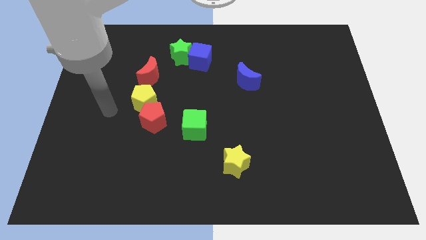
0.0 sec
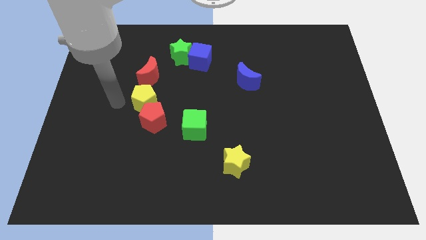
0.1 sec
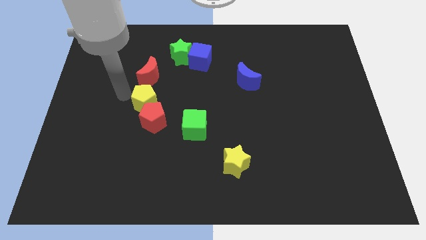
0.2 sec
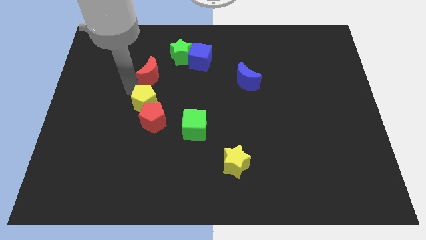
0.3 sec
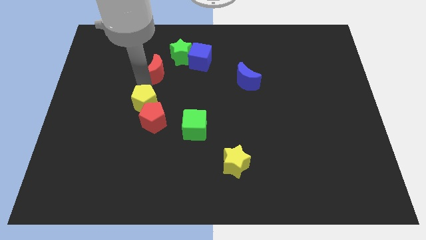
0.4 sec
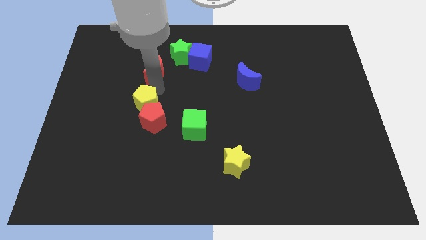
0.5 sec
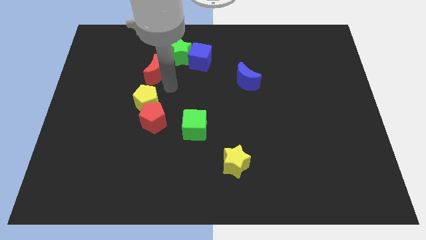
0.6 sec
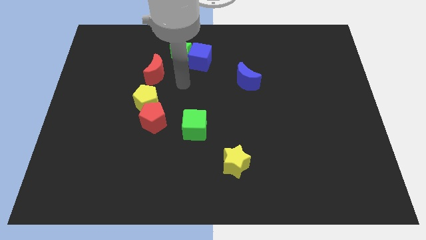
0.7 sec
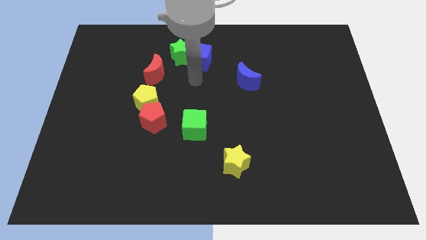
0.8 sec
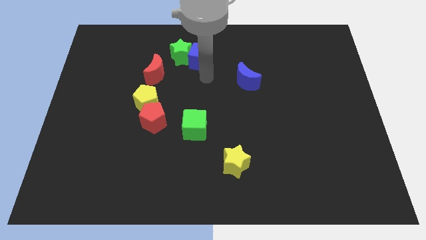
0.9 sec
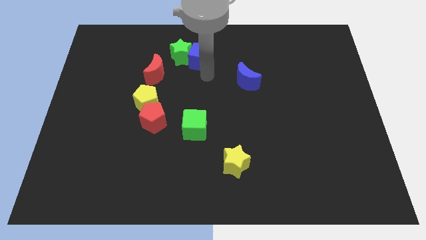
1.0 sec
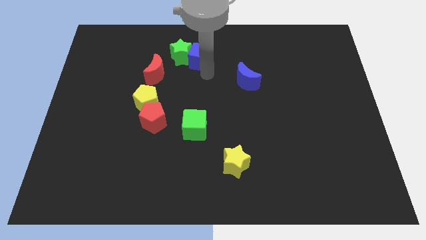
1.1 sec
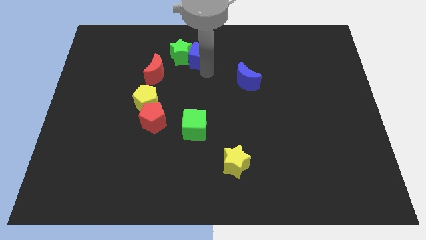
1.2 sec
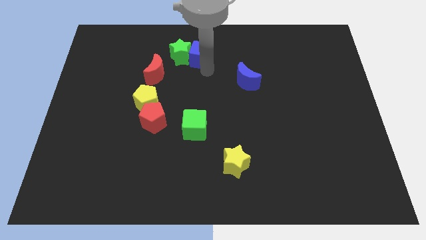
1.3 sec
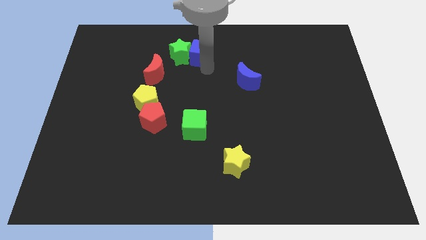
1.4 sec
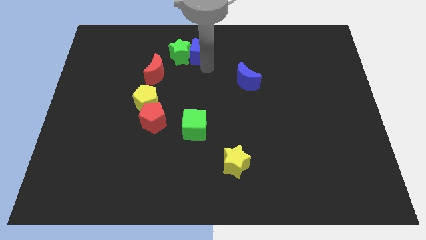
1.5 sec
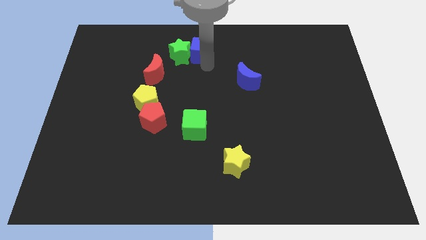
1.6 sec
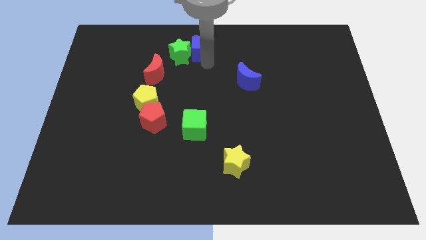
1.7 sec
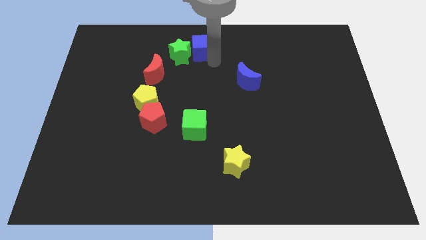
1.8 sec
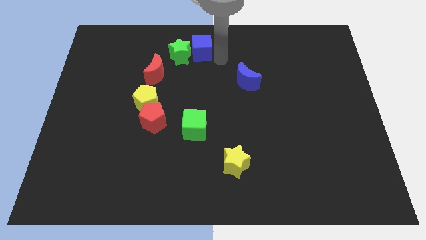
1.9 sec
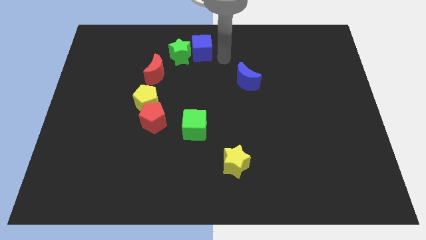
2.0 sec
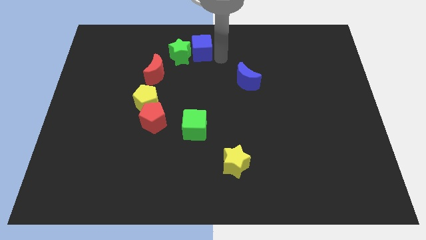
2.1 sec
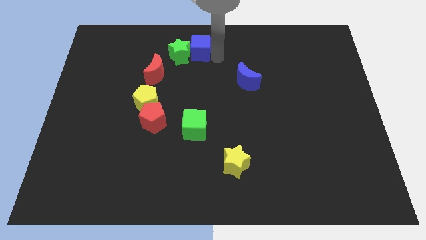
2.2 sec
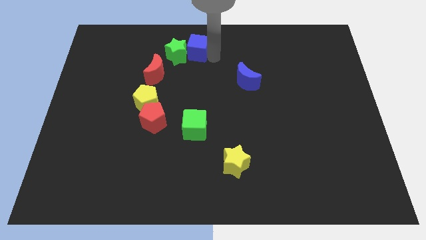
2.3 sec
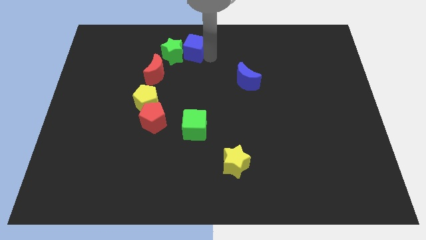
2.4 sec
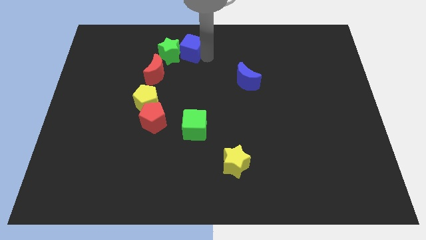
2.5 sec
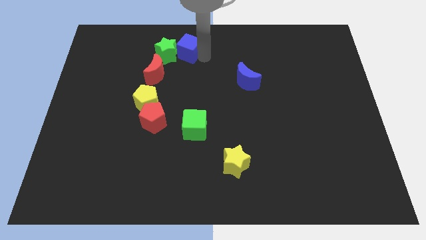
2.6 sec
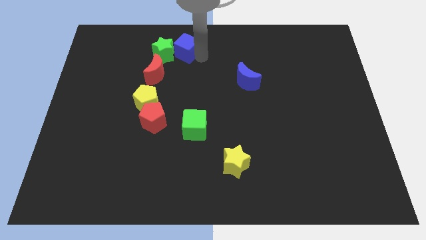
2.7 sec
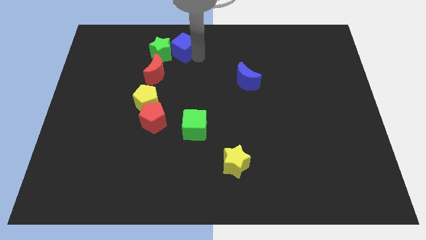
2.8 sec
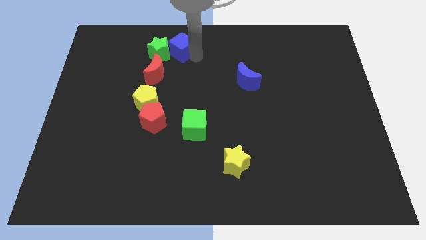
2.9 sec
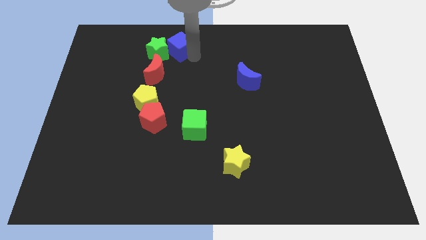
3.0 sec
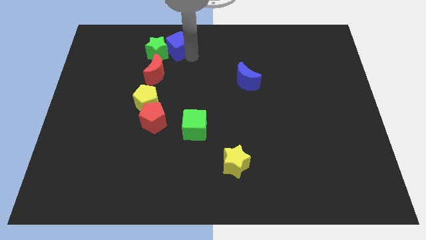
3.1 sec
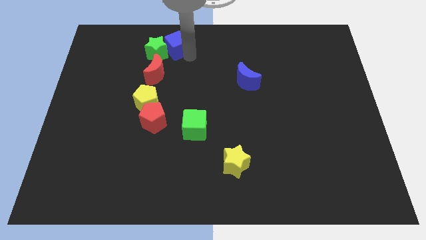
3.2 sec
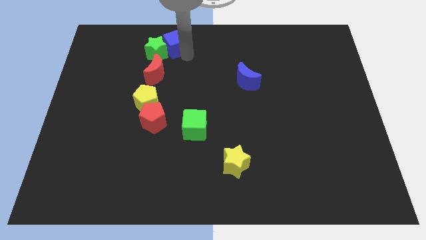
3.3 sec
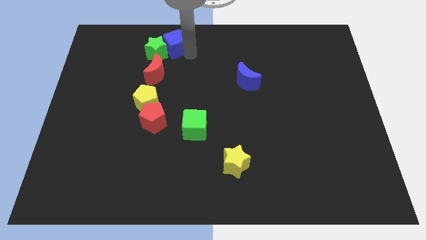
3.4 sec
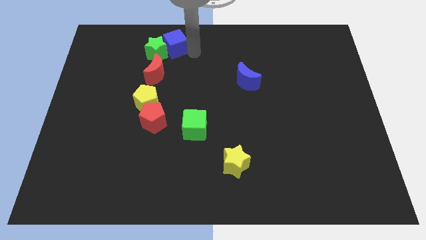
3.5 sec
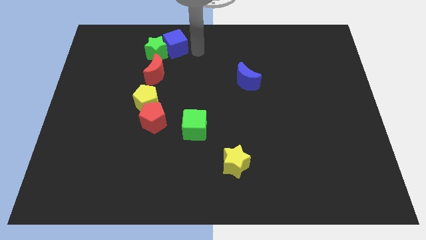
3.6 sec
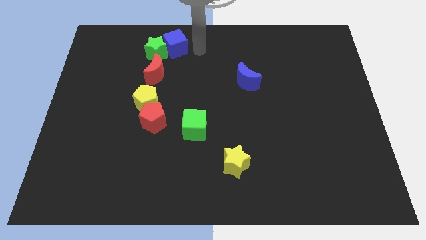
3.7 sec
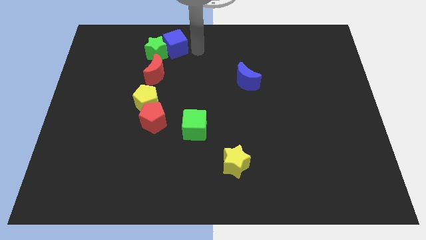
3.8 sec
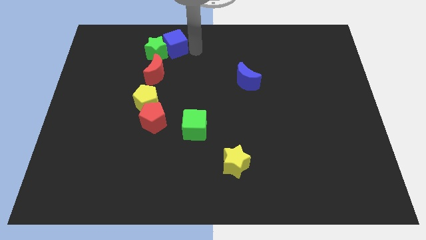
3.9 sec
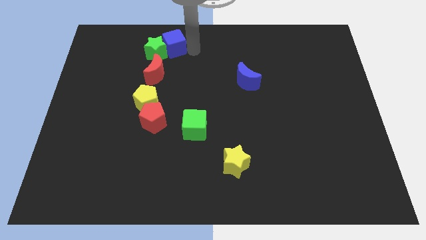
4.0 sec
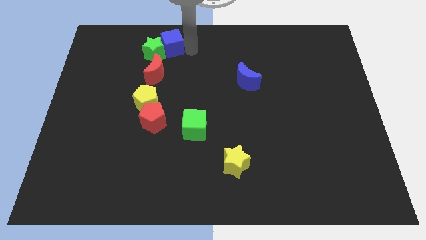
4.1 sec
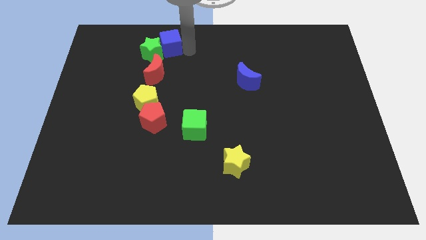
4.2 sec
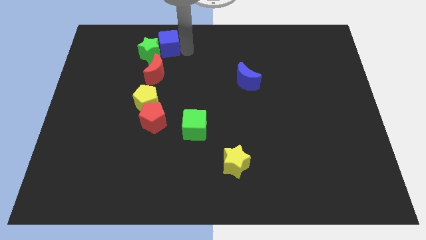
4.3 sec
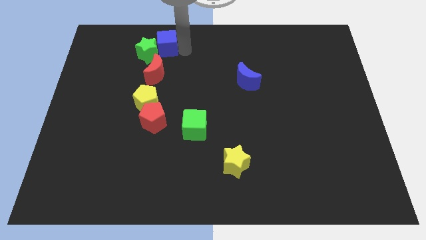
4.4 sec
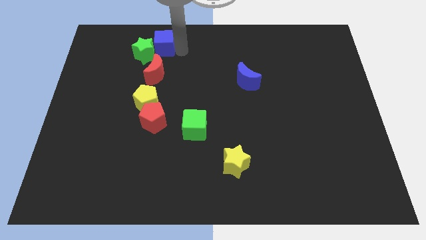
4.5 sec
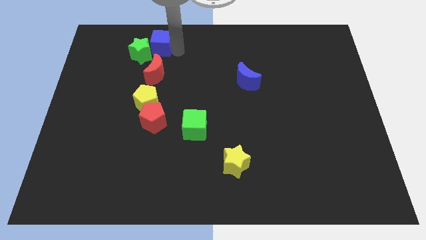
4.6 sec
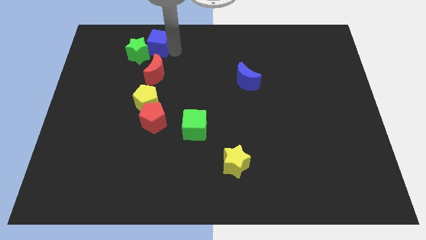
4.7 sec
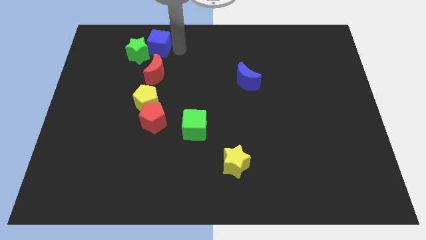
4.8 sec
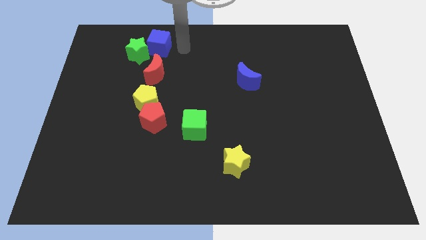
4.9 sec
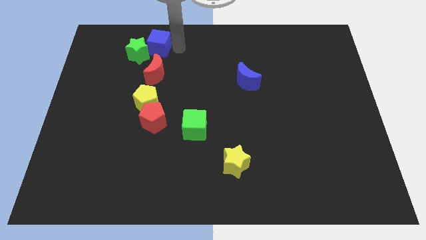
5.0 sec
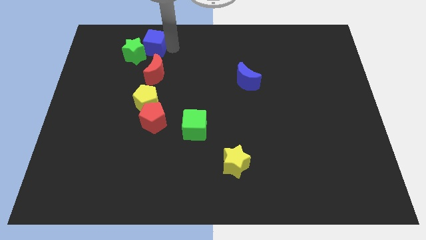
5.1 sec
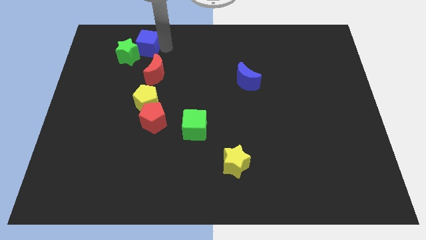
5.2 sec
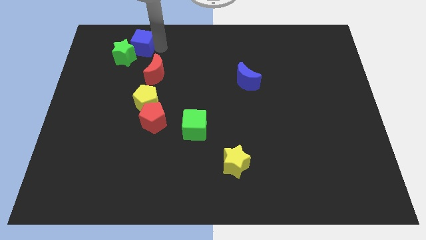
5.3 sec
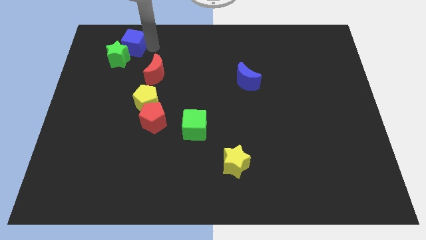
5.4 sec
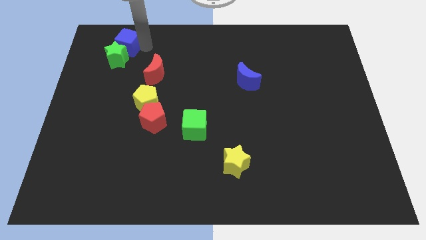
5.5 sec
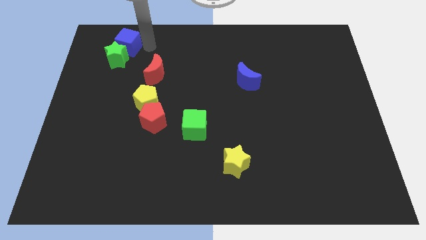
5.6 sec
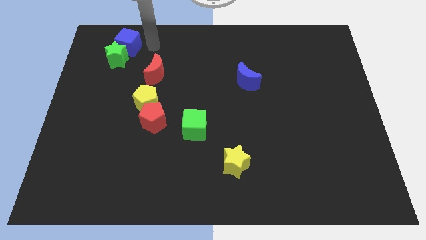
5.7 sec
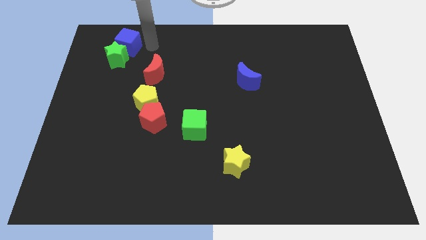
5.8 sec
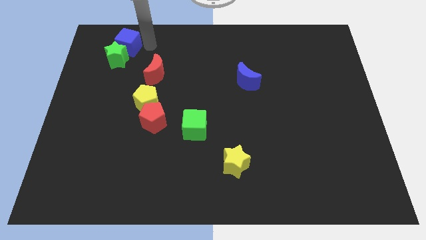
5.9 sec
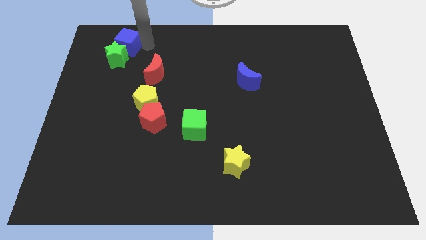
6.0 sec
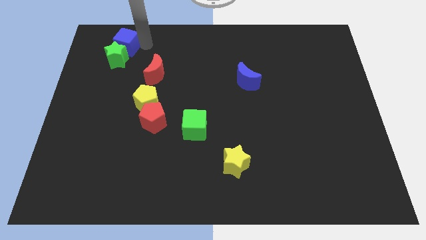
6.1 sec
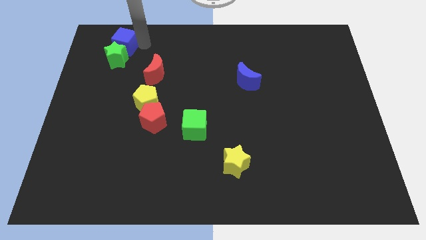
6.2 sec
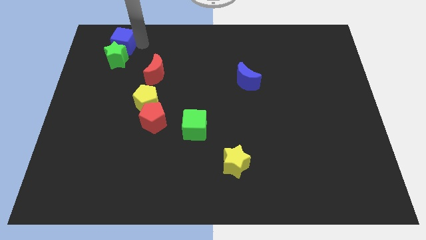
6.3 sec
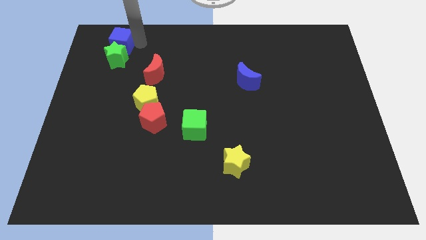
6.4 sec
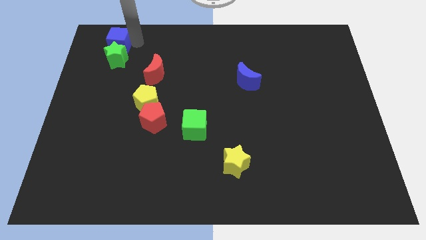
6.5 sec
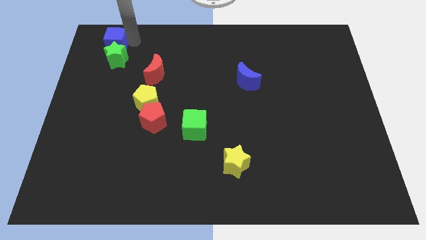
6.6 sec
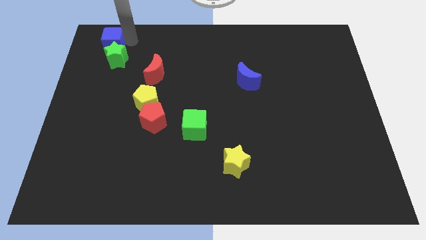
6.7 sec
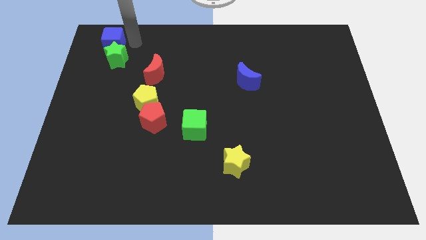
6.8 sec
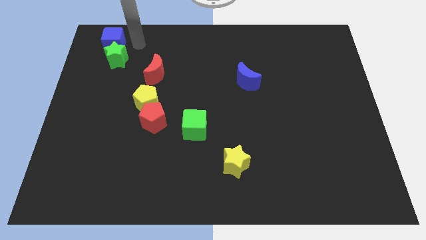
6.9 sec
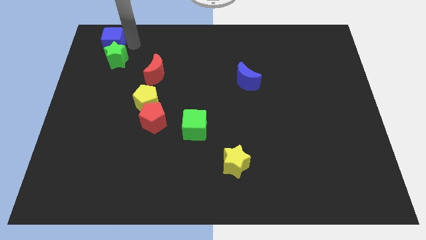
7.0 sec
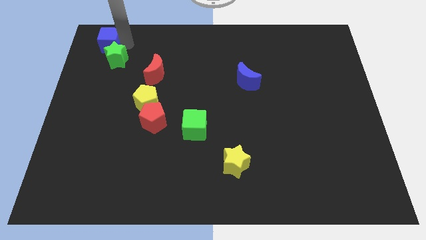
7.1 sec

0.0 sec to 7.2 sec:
push the blue cube to the top left
